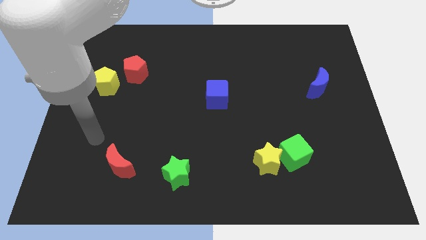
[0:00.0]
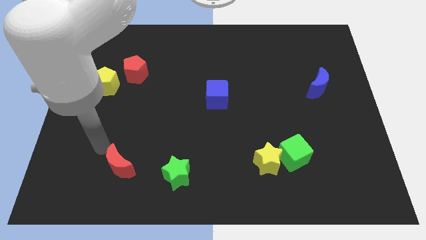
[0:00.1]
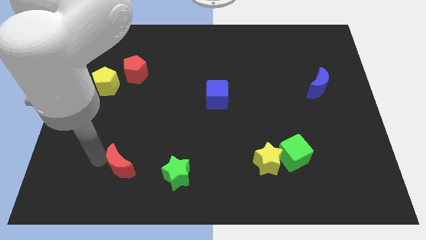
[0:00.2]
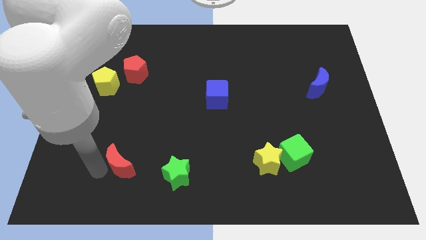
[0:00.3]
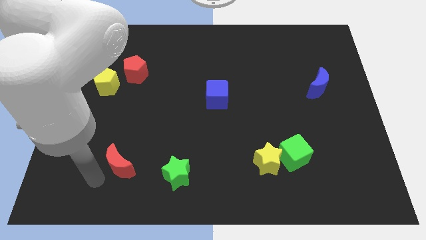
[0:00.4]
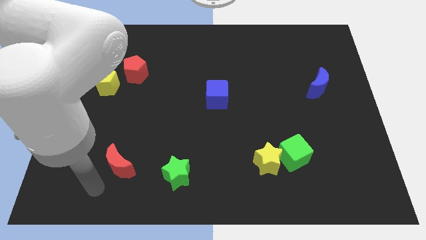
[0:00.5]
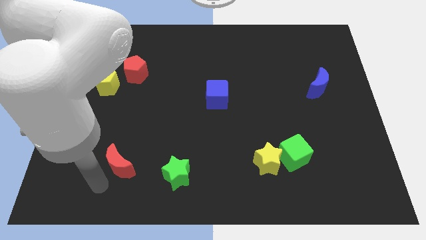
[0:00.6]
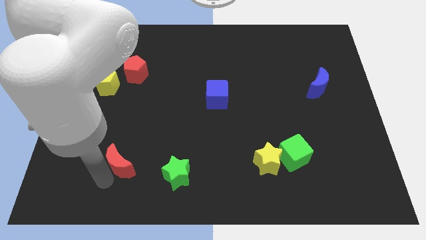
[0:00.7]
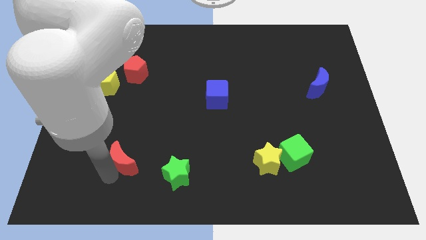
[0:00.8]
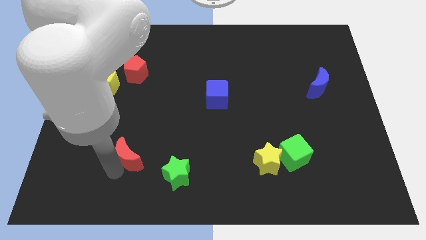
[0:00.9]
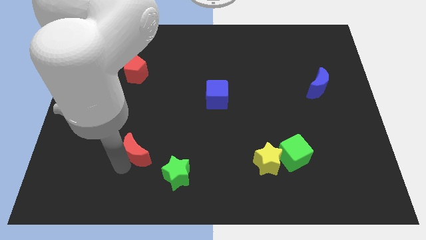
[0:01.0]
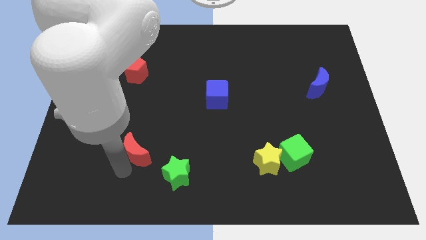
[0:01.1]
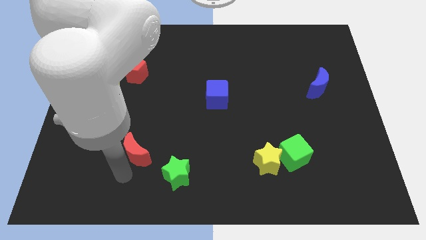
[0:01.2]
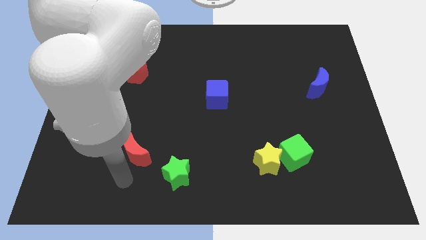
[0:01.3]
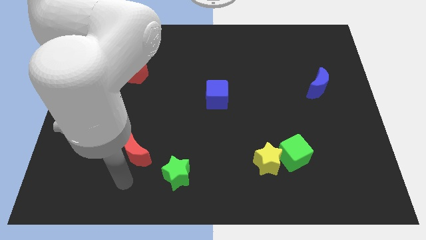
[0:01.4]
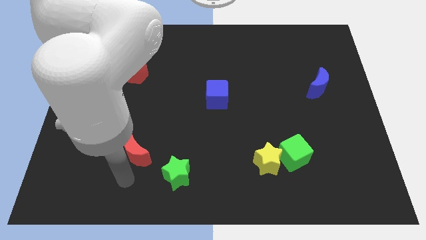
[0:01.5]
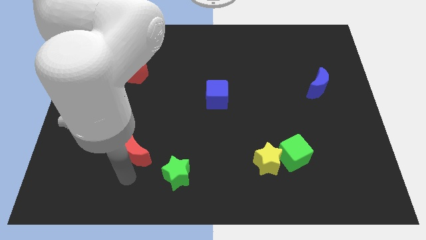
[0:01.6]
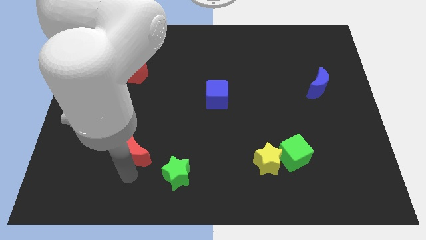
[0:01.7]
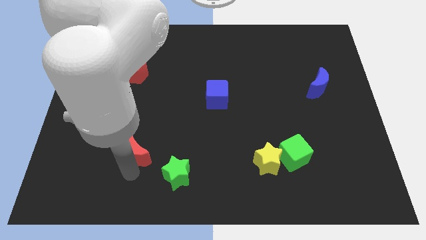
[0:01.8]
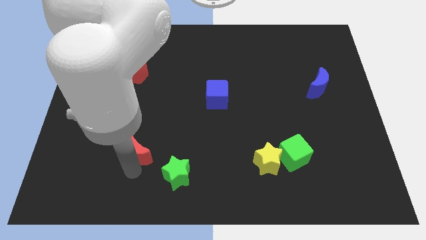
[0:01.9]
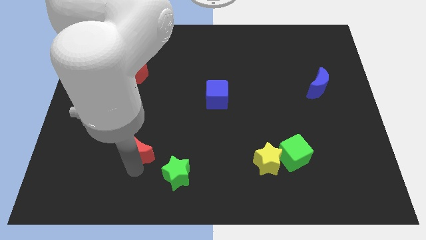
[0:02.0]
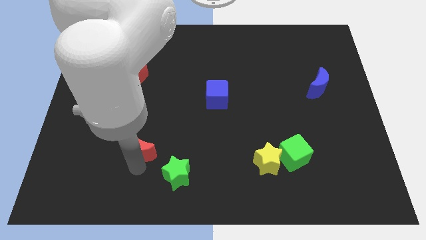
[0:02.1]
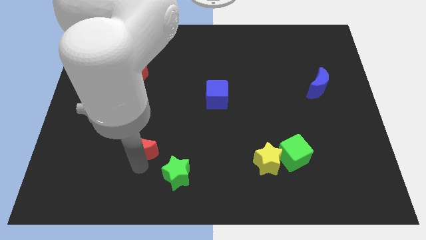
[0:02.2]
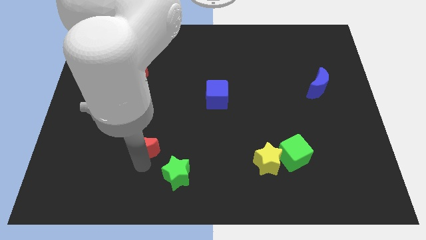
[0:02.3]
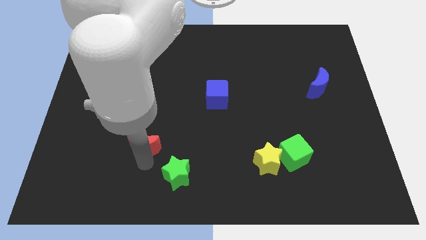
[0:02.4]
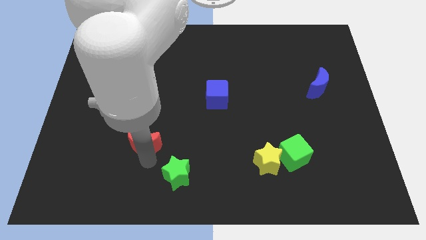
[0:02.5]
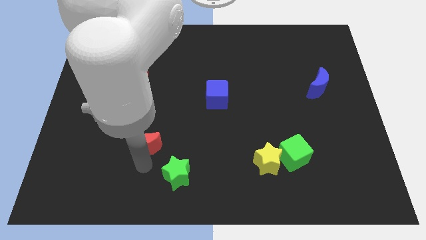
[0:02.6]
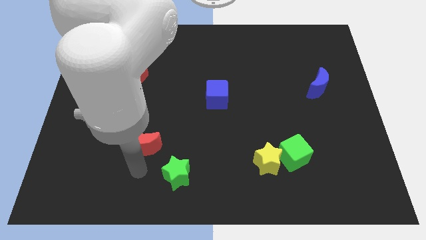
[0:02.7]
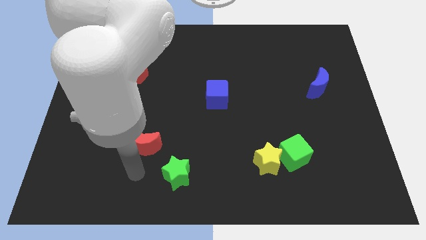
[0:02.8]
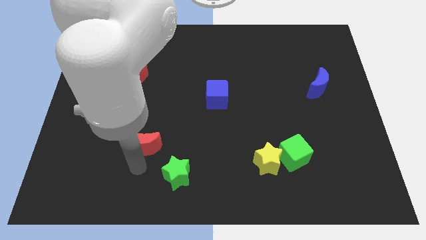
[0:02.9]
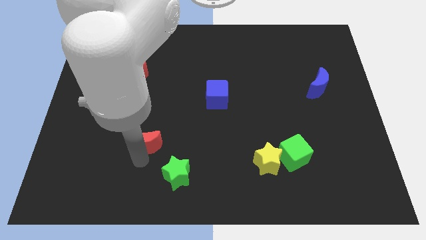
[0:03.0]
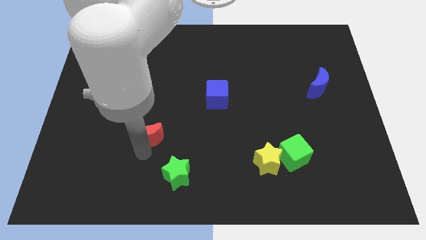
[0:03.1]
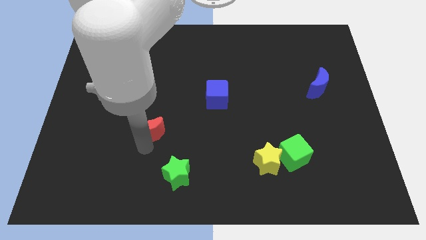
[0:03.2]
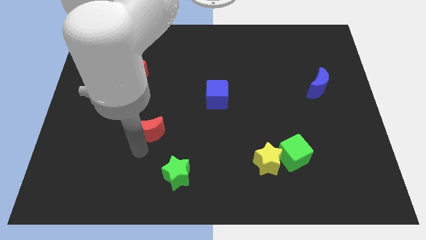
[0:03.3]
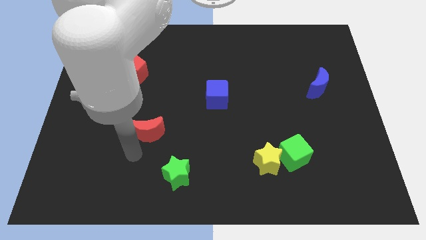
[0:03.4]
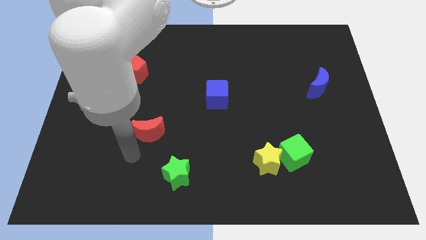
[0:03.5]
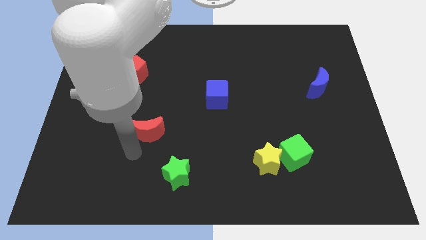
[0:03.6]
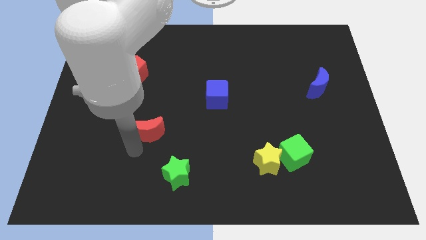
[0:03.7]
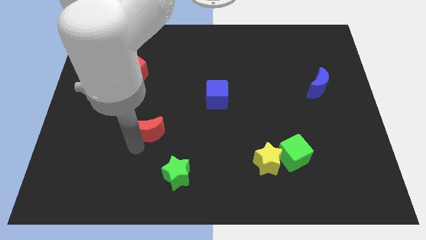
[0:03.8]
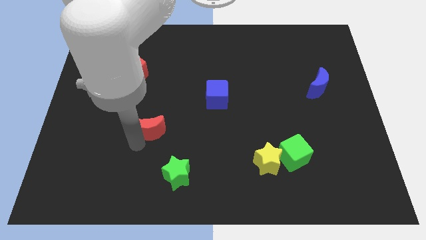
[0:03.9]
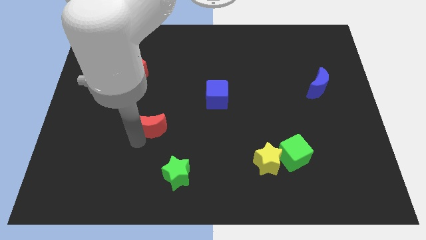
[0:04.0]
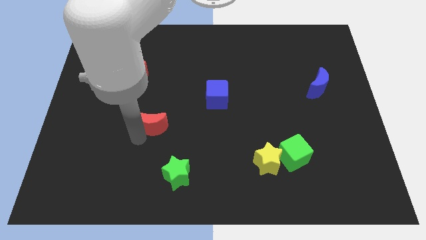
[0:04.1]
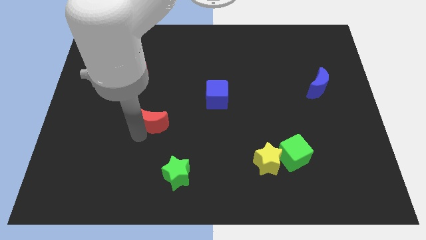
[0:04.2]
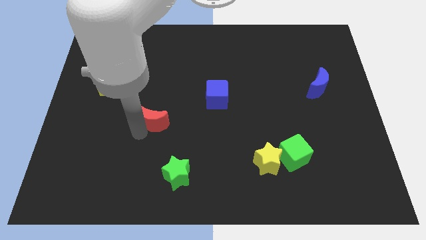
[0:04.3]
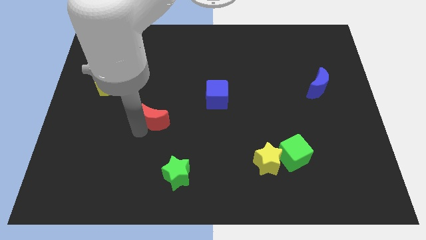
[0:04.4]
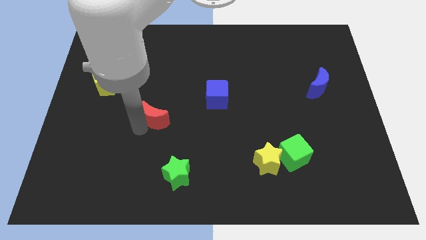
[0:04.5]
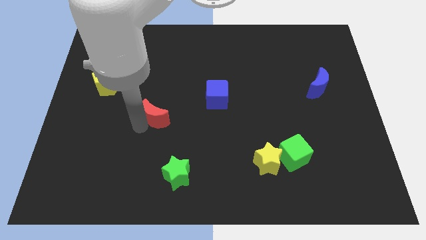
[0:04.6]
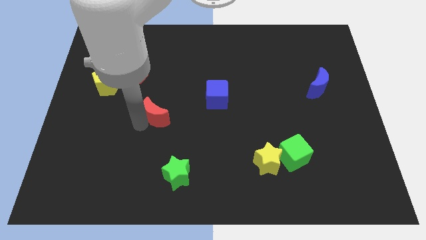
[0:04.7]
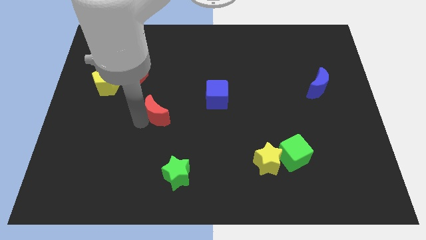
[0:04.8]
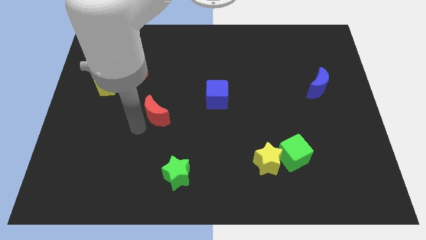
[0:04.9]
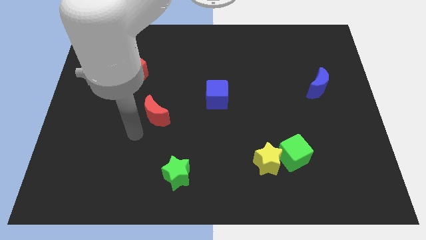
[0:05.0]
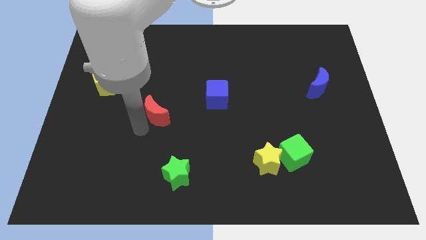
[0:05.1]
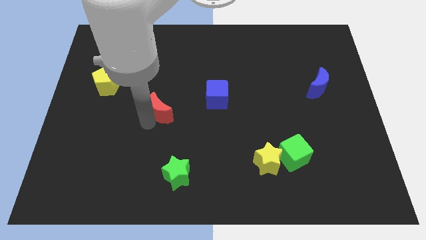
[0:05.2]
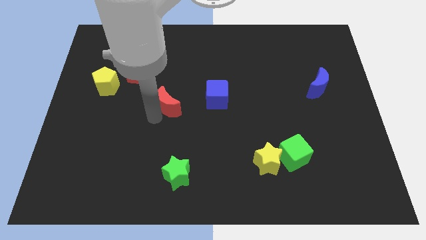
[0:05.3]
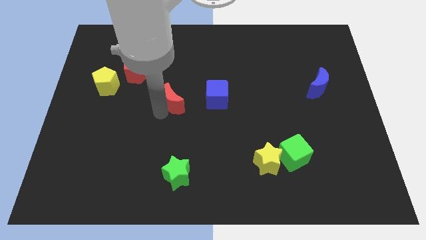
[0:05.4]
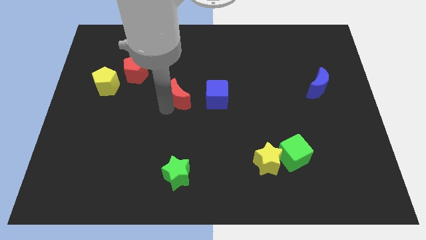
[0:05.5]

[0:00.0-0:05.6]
move the red moon diagonally up and to the right

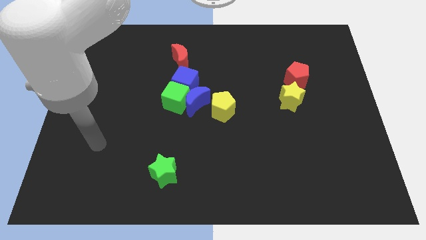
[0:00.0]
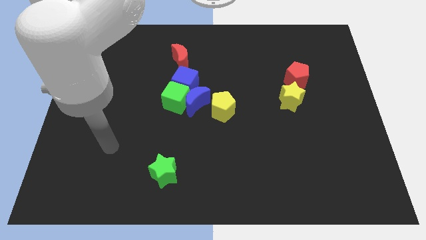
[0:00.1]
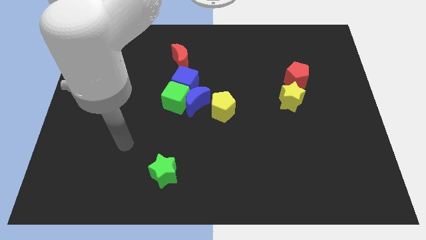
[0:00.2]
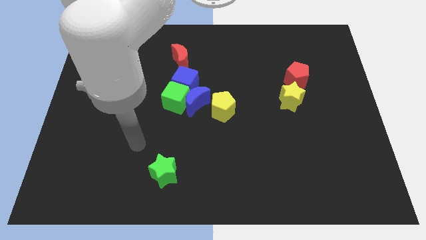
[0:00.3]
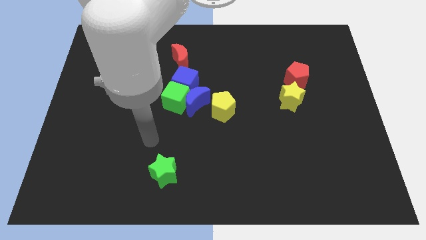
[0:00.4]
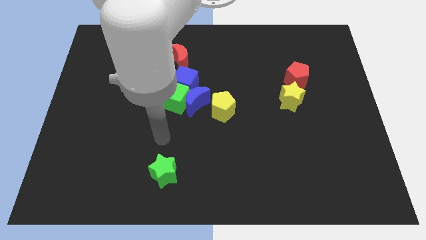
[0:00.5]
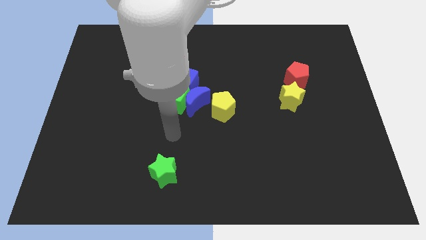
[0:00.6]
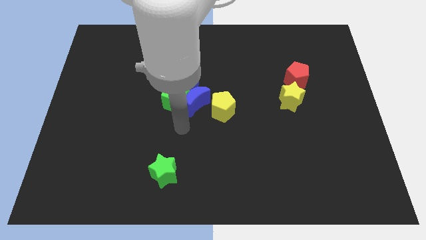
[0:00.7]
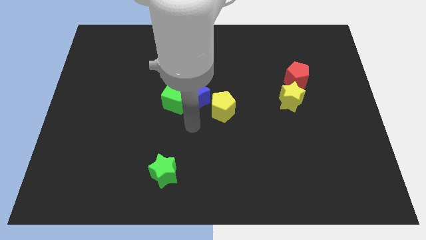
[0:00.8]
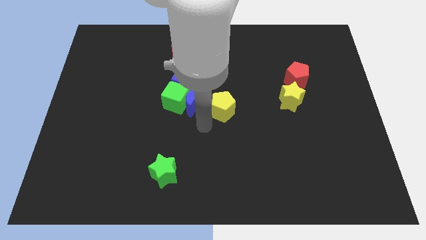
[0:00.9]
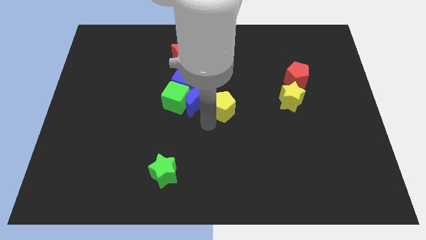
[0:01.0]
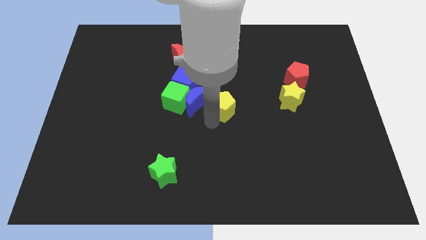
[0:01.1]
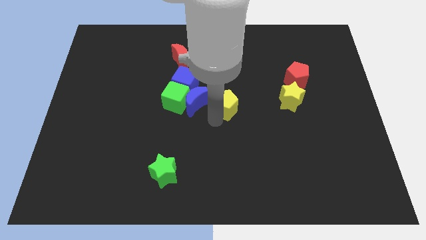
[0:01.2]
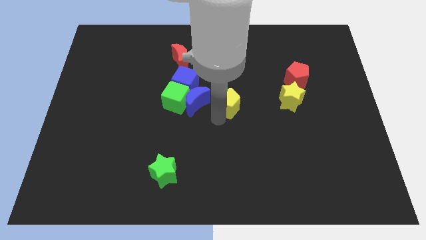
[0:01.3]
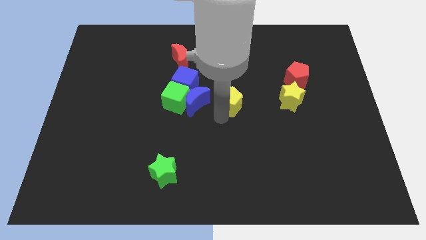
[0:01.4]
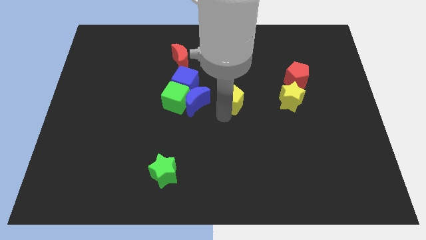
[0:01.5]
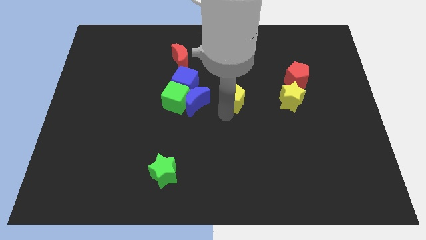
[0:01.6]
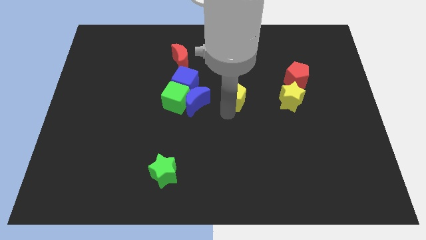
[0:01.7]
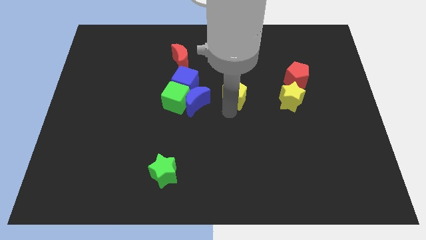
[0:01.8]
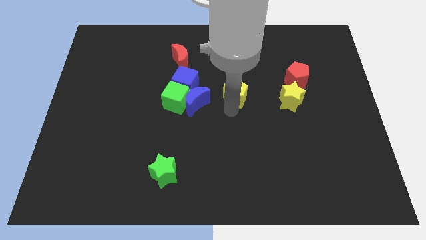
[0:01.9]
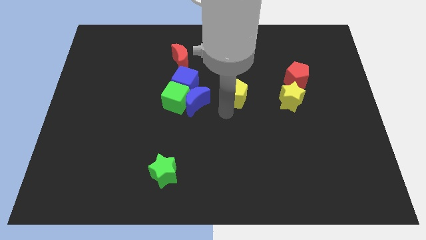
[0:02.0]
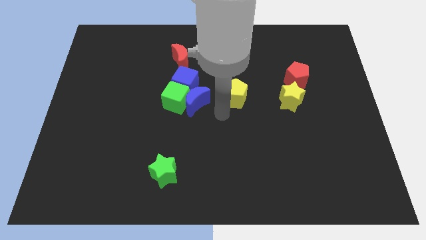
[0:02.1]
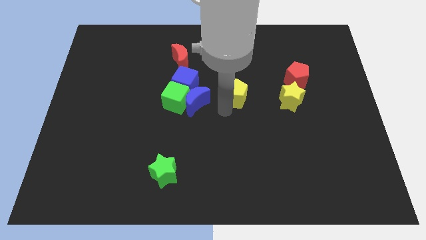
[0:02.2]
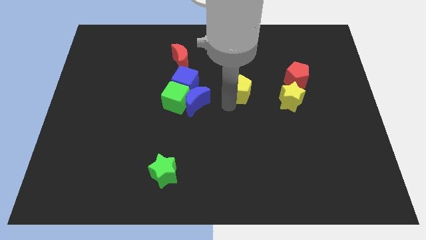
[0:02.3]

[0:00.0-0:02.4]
slightly slide the yellow pentagon diagonally upwards and right

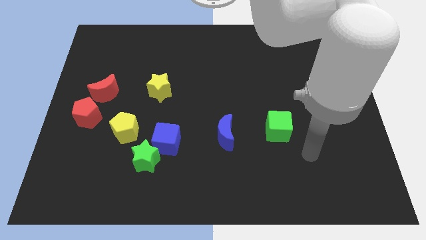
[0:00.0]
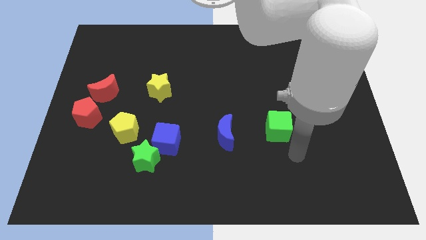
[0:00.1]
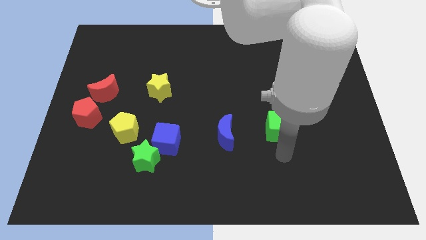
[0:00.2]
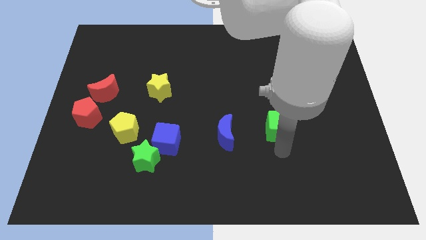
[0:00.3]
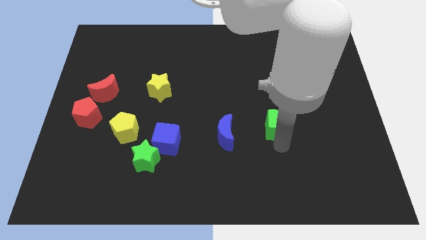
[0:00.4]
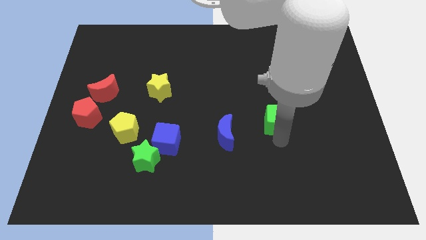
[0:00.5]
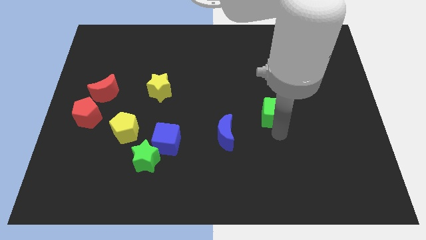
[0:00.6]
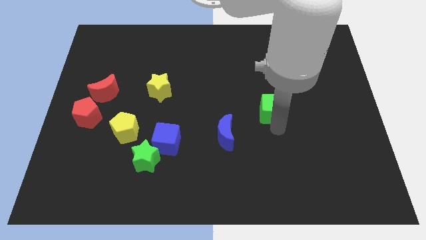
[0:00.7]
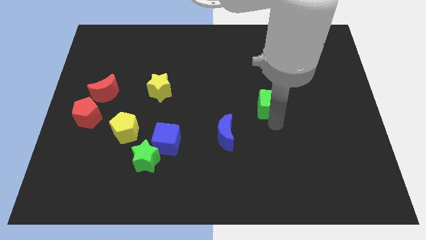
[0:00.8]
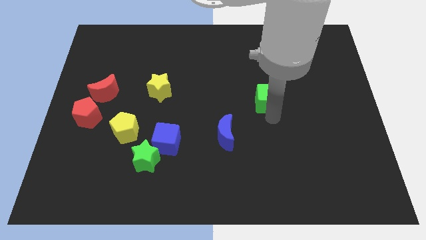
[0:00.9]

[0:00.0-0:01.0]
slightly move the green cube upwards
